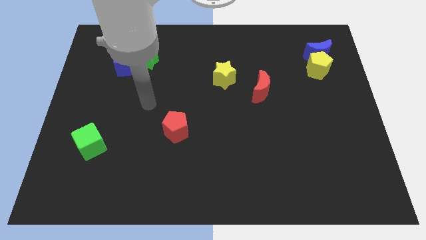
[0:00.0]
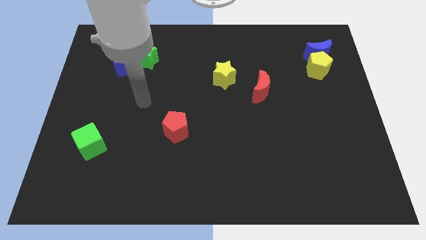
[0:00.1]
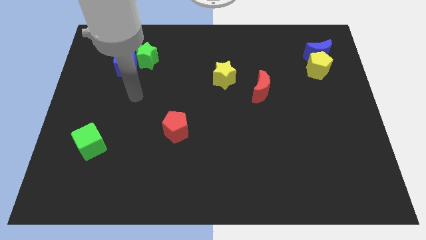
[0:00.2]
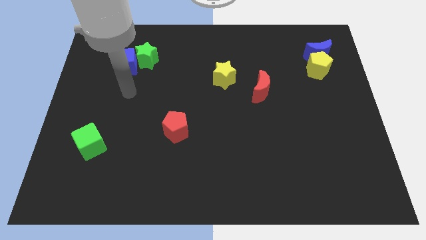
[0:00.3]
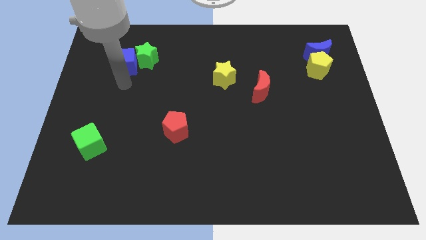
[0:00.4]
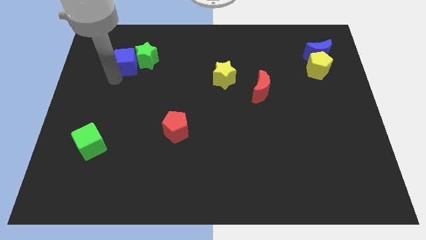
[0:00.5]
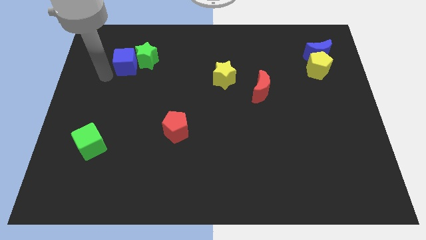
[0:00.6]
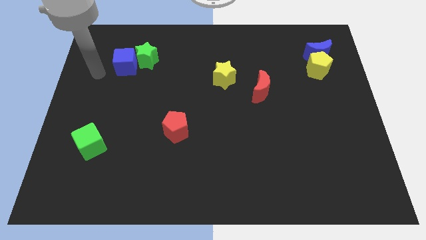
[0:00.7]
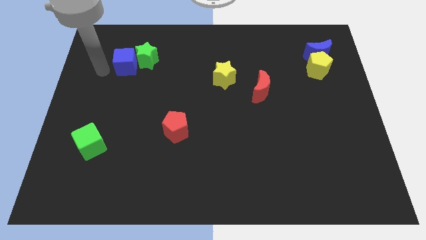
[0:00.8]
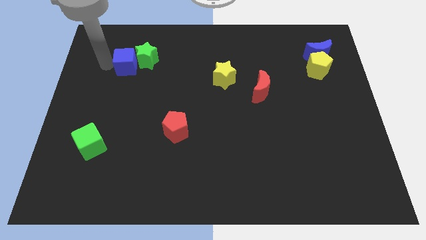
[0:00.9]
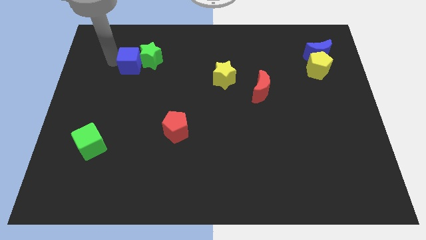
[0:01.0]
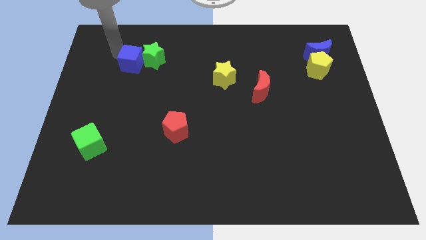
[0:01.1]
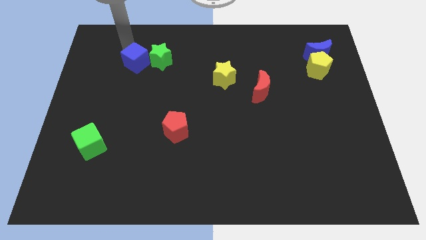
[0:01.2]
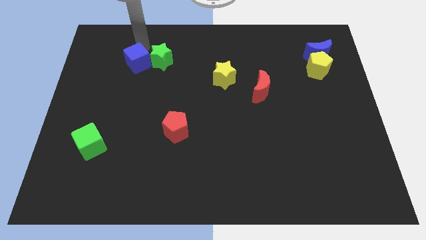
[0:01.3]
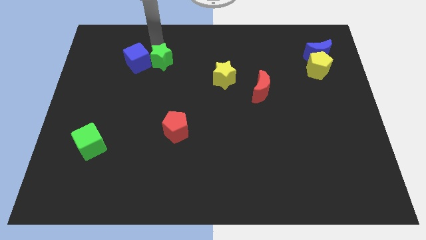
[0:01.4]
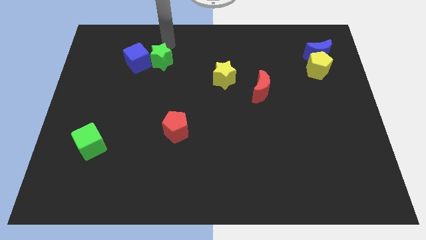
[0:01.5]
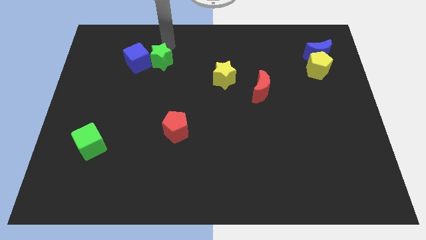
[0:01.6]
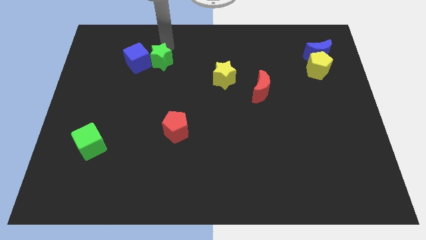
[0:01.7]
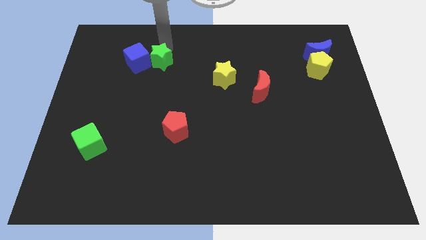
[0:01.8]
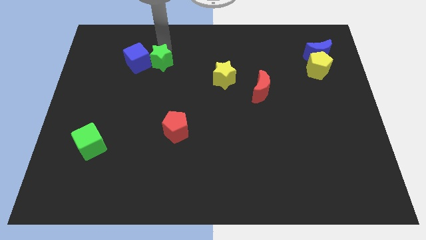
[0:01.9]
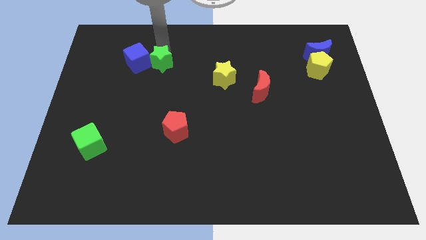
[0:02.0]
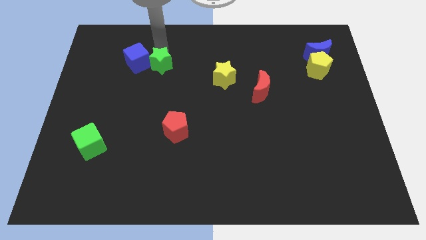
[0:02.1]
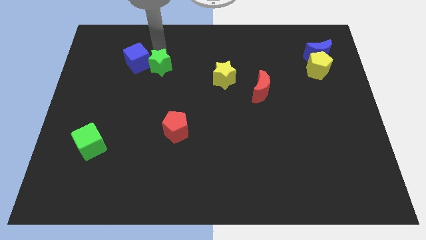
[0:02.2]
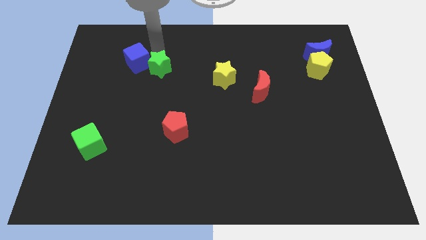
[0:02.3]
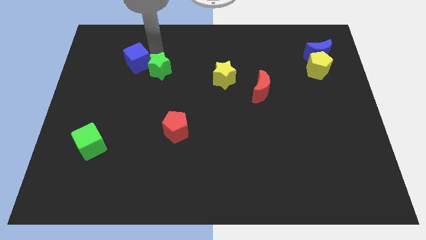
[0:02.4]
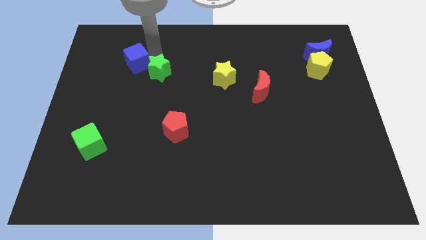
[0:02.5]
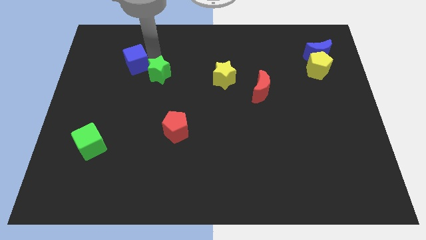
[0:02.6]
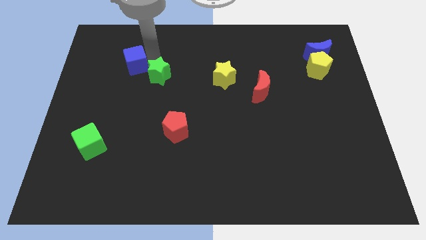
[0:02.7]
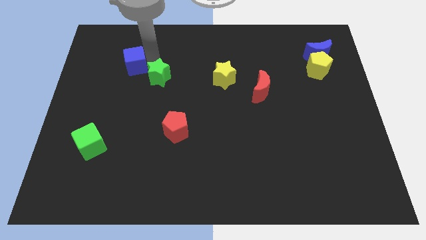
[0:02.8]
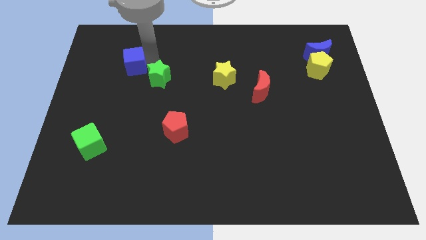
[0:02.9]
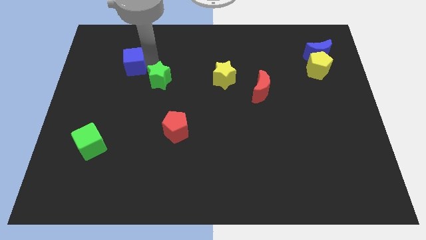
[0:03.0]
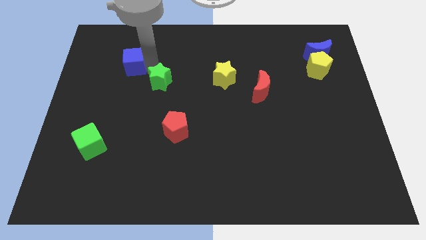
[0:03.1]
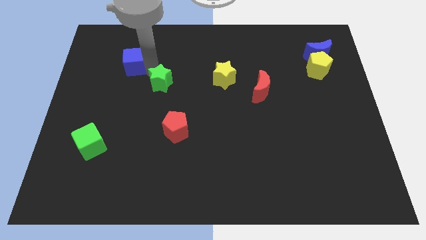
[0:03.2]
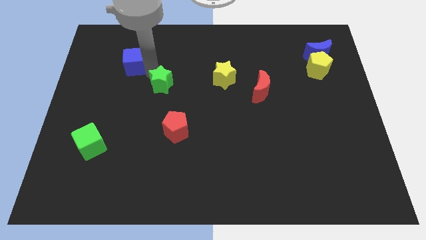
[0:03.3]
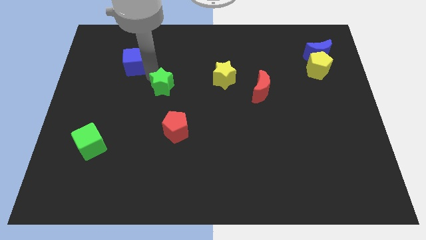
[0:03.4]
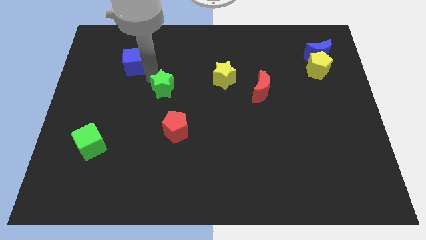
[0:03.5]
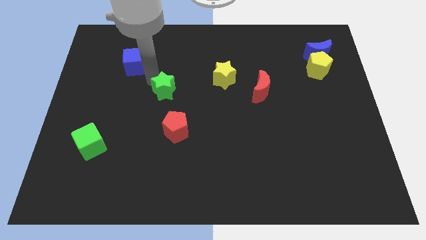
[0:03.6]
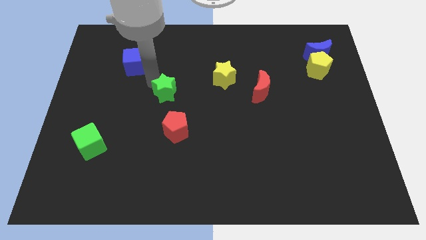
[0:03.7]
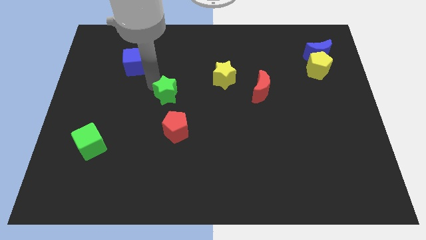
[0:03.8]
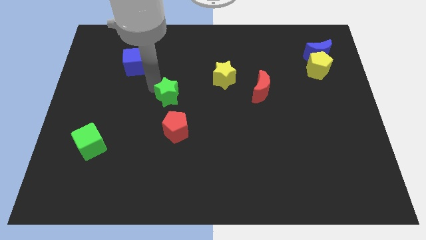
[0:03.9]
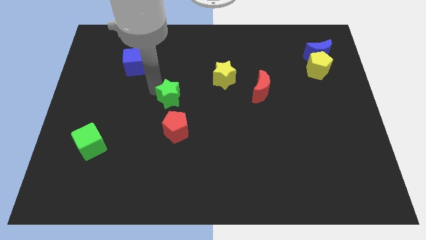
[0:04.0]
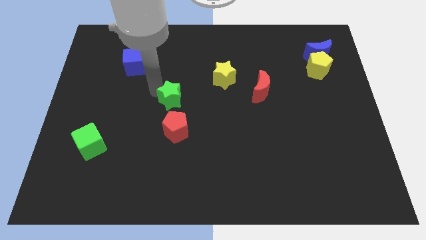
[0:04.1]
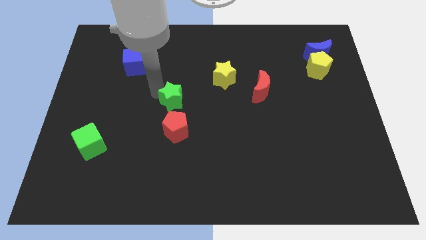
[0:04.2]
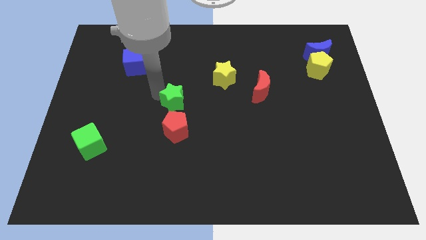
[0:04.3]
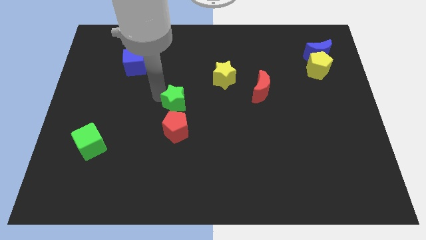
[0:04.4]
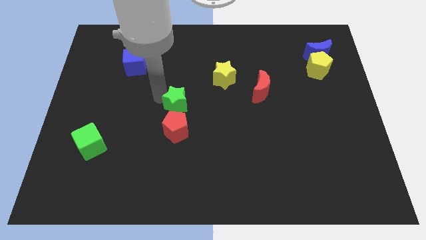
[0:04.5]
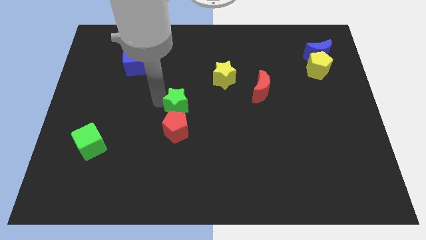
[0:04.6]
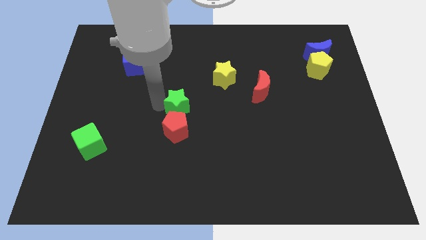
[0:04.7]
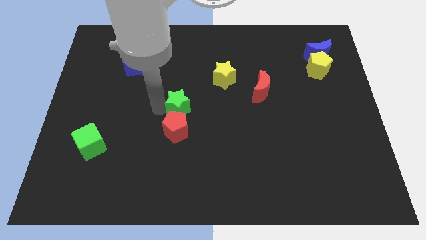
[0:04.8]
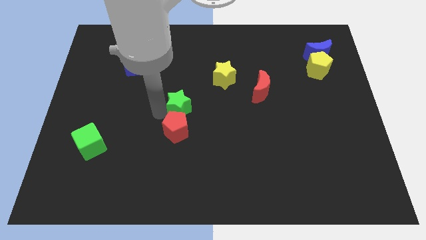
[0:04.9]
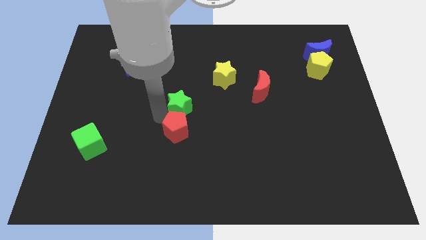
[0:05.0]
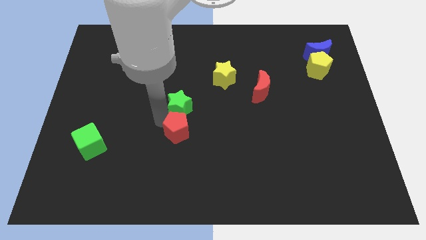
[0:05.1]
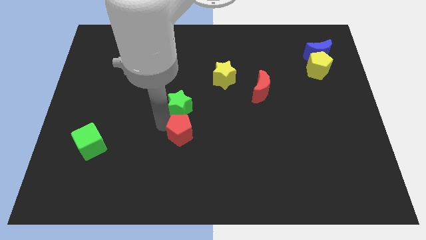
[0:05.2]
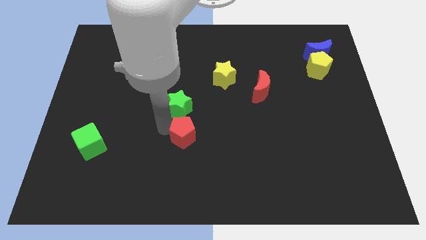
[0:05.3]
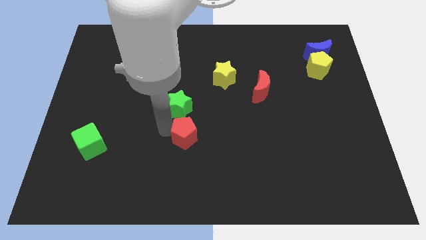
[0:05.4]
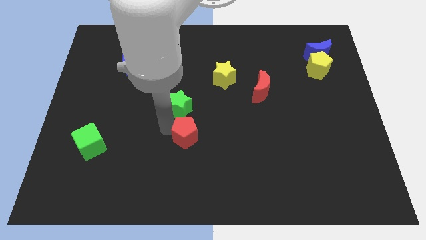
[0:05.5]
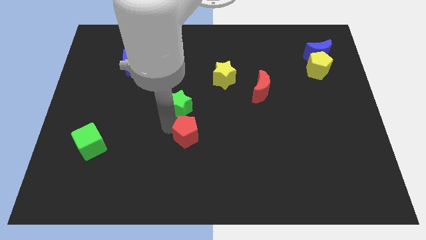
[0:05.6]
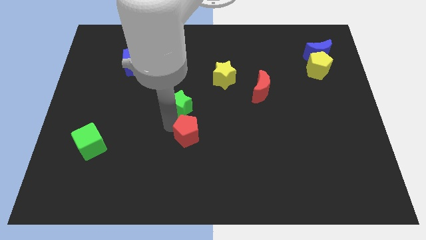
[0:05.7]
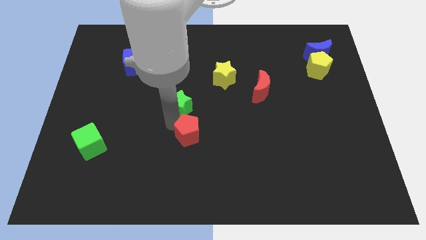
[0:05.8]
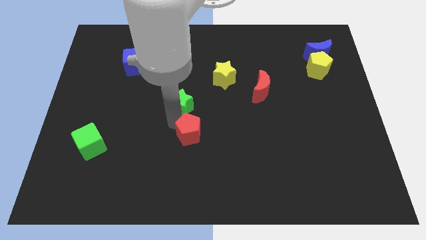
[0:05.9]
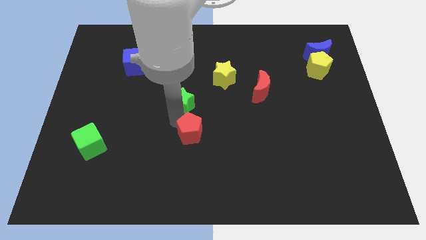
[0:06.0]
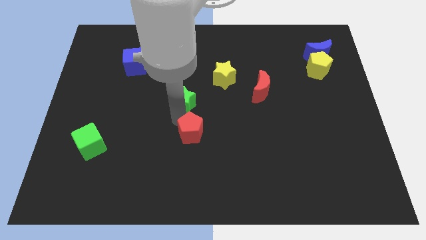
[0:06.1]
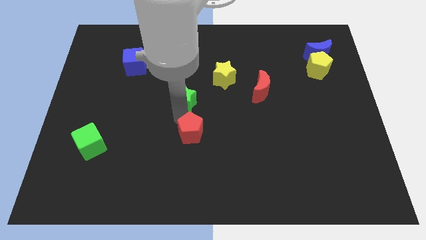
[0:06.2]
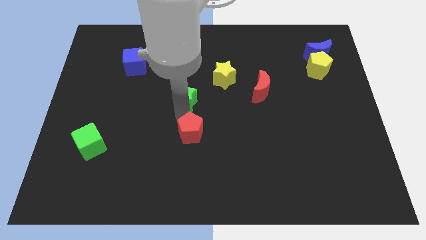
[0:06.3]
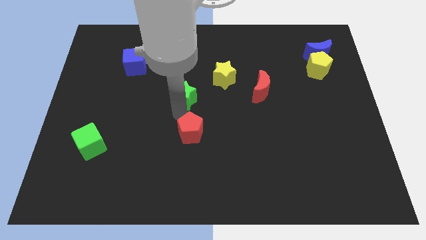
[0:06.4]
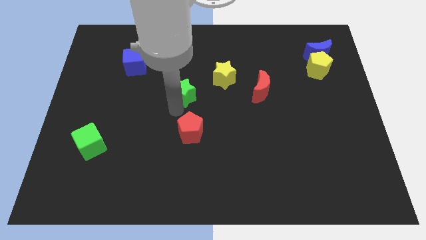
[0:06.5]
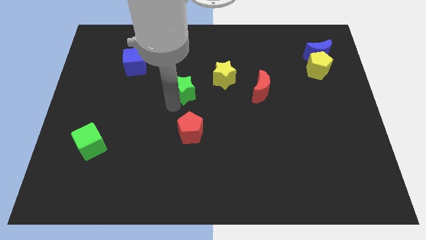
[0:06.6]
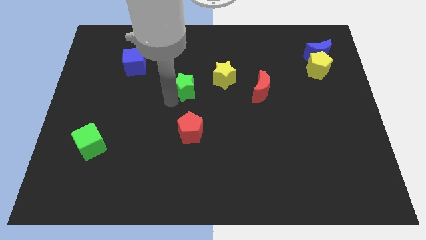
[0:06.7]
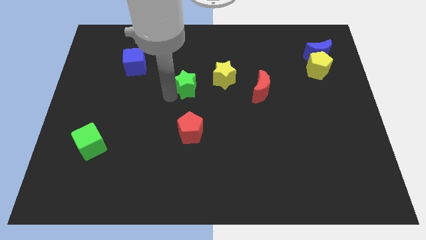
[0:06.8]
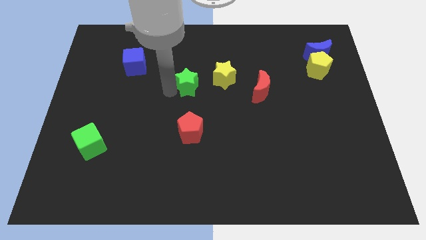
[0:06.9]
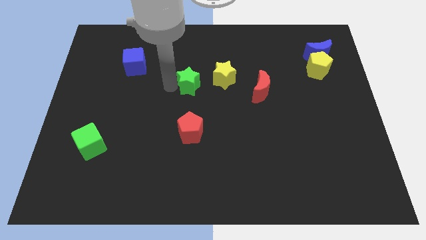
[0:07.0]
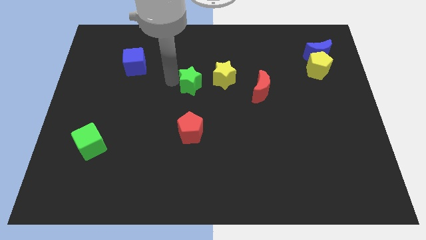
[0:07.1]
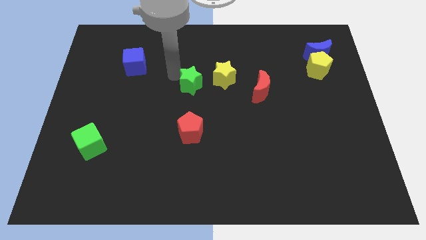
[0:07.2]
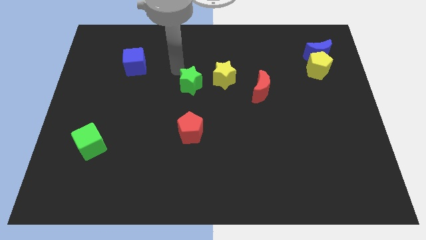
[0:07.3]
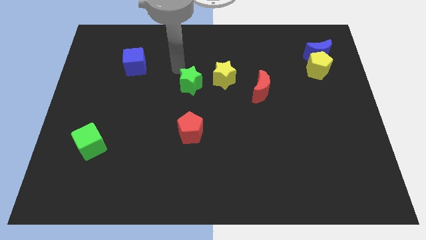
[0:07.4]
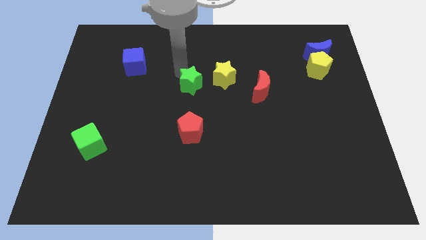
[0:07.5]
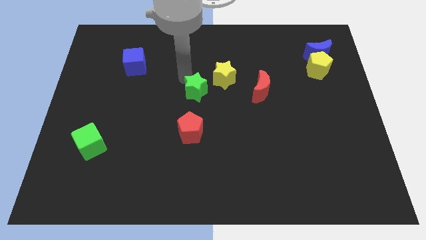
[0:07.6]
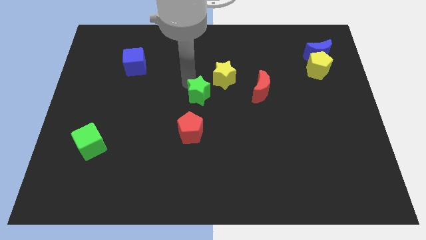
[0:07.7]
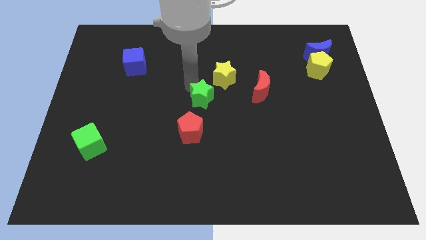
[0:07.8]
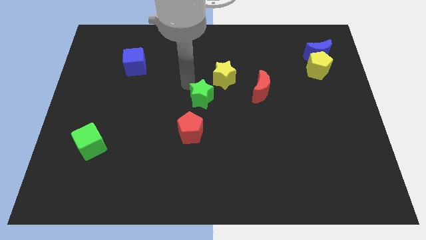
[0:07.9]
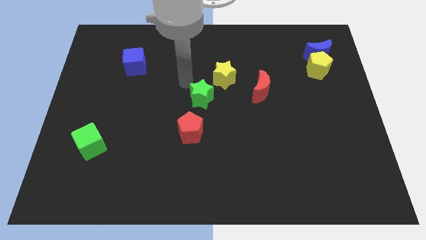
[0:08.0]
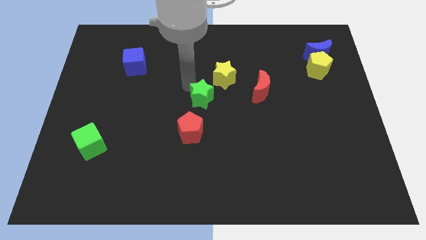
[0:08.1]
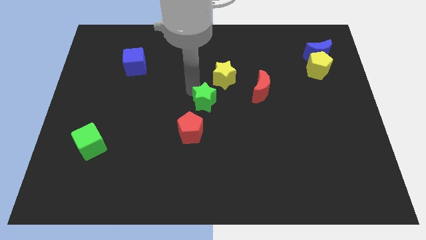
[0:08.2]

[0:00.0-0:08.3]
move the green star downwards and to the right diagonally
